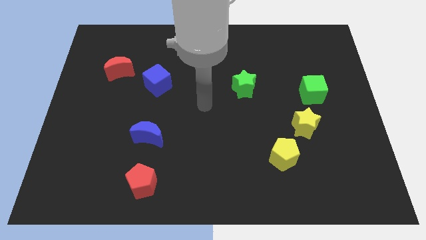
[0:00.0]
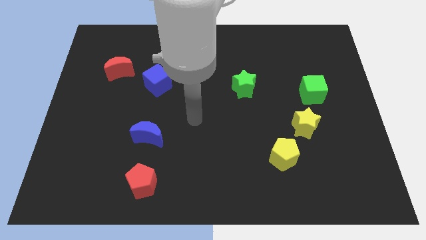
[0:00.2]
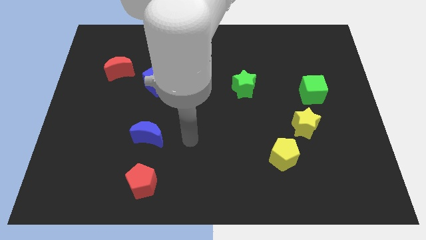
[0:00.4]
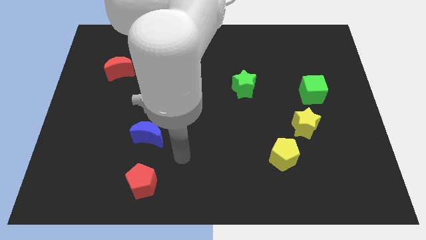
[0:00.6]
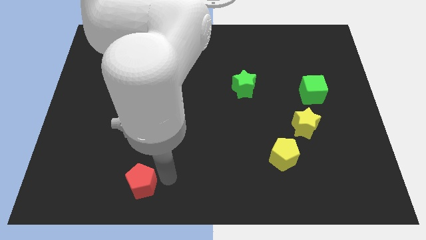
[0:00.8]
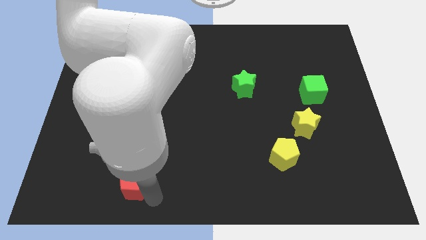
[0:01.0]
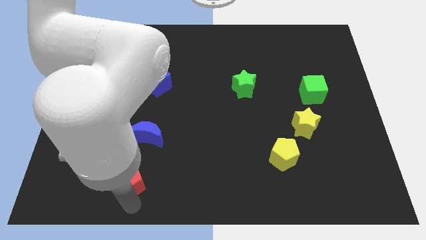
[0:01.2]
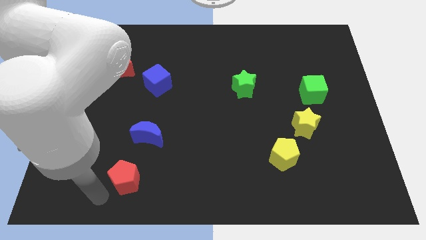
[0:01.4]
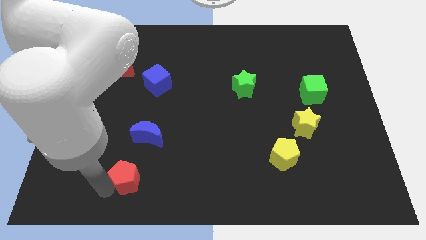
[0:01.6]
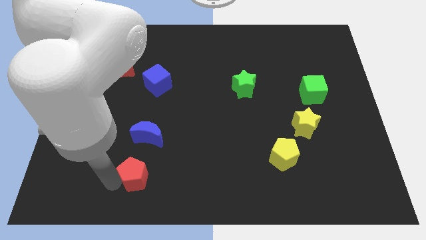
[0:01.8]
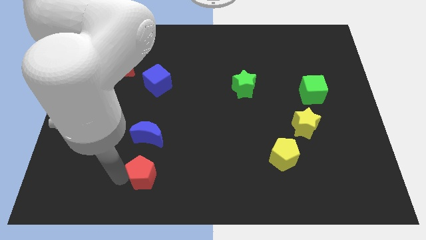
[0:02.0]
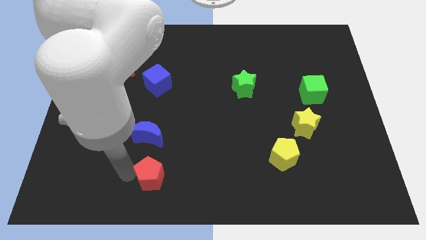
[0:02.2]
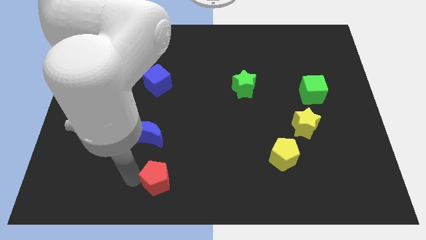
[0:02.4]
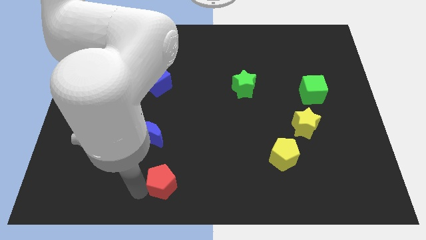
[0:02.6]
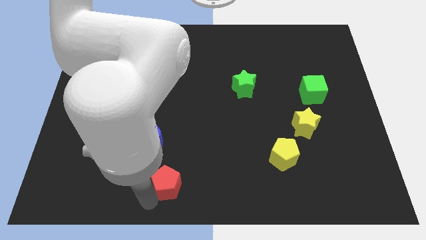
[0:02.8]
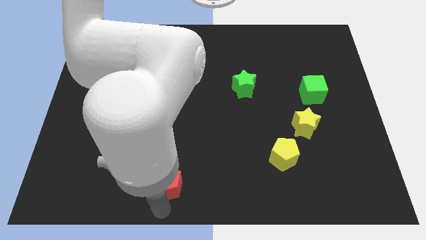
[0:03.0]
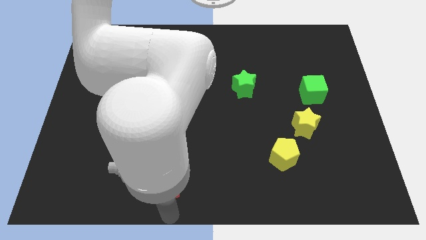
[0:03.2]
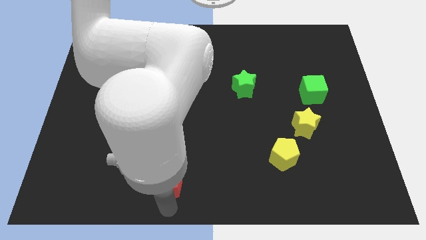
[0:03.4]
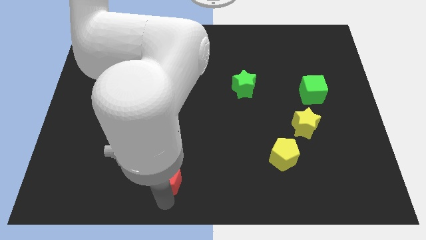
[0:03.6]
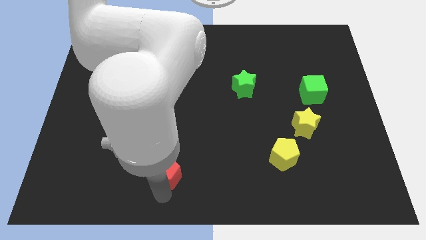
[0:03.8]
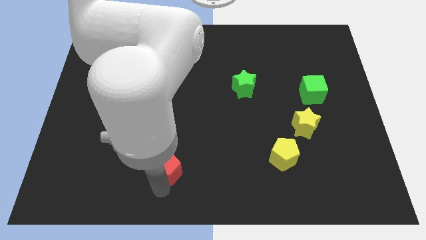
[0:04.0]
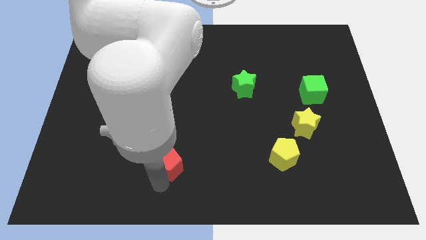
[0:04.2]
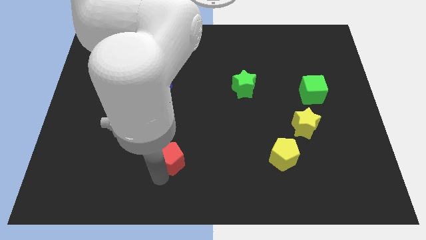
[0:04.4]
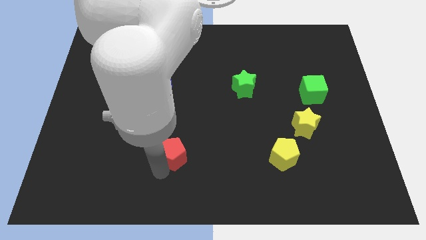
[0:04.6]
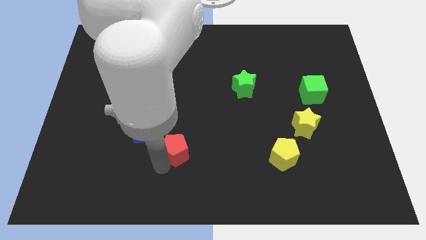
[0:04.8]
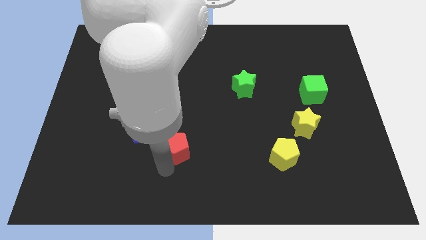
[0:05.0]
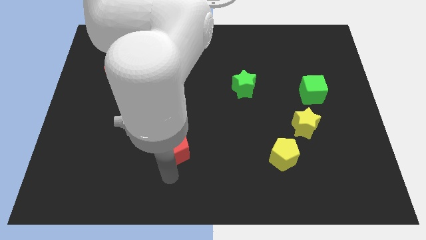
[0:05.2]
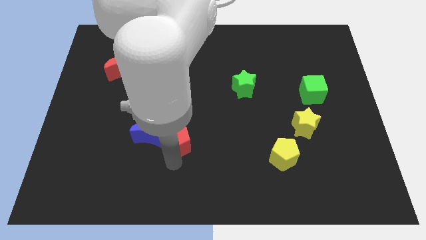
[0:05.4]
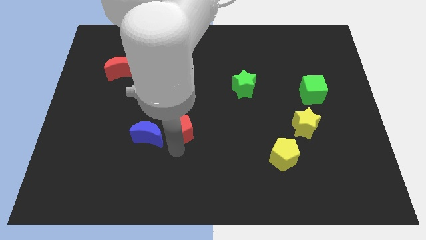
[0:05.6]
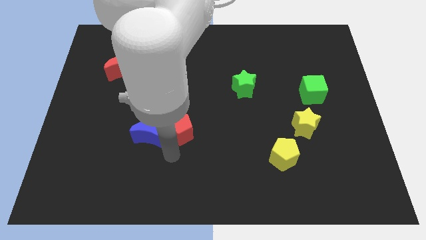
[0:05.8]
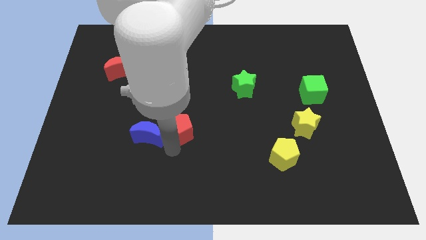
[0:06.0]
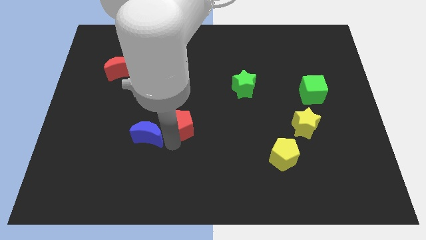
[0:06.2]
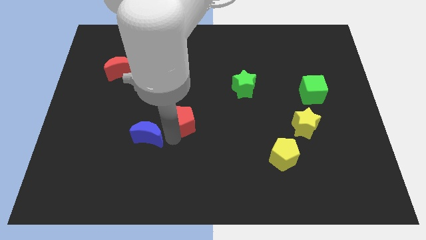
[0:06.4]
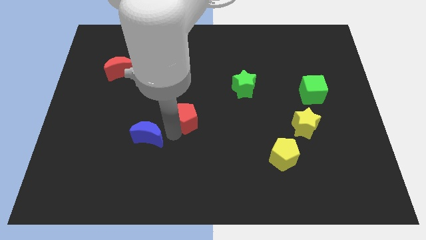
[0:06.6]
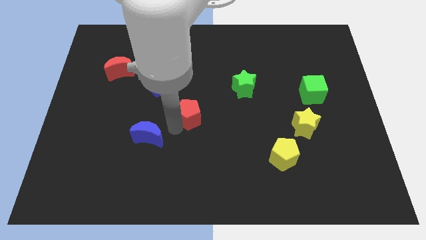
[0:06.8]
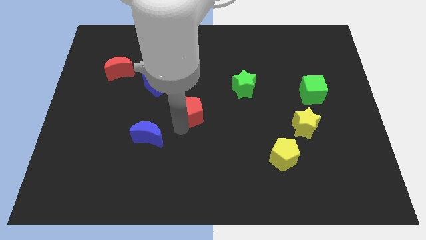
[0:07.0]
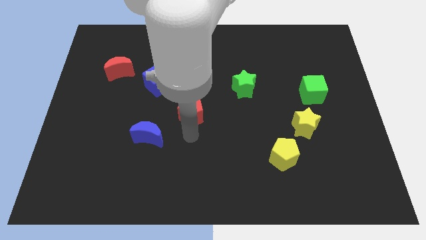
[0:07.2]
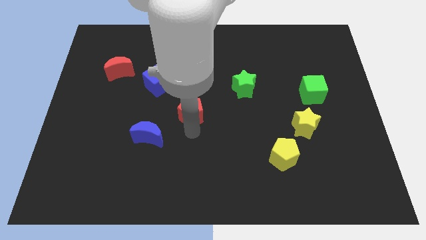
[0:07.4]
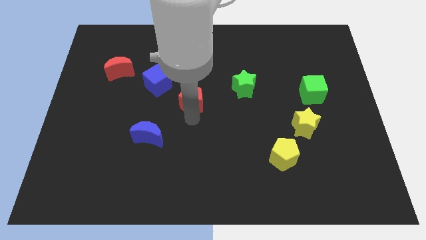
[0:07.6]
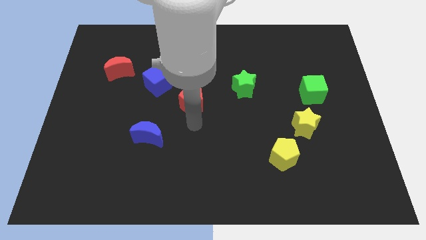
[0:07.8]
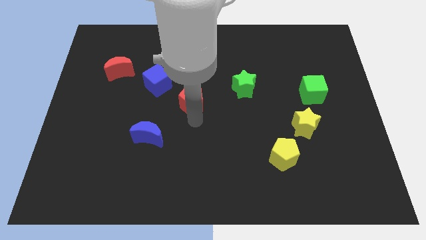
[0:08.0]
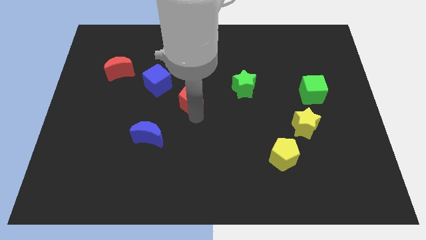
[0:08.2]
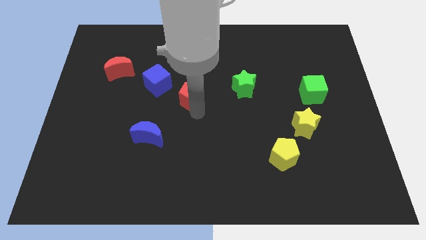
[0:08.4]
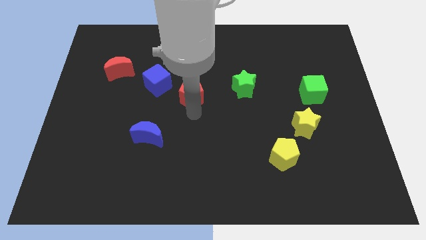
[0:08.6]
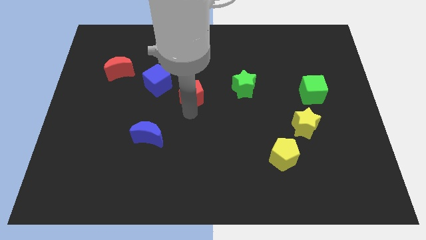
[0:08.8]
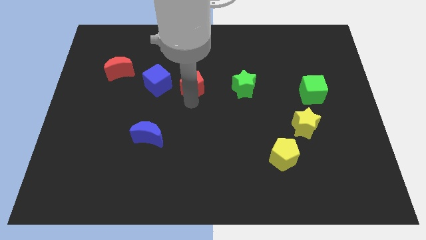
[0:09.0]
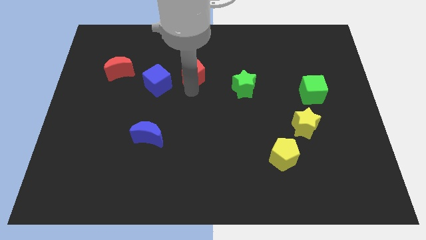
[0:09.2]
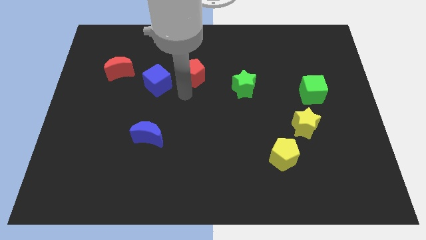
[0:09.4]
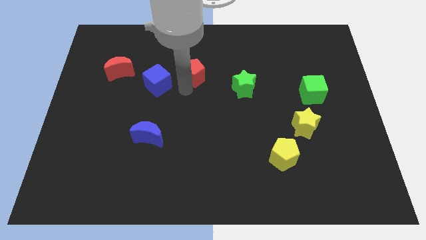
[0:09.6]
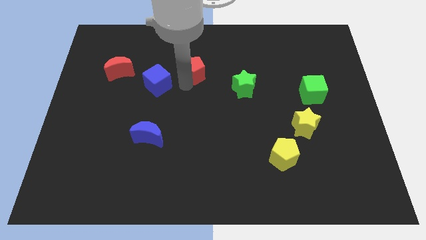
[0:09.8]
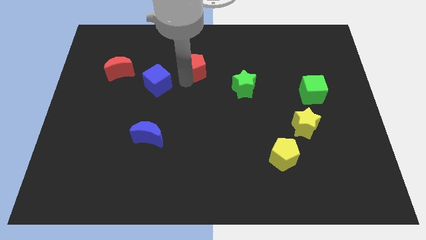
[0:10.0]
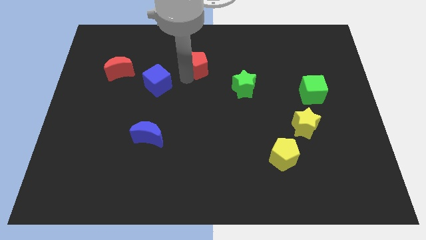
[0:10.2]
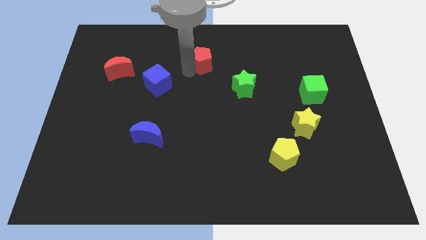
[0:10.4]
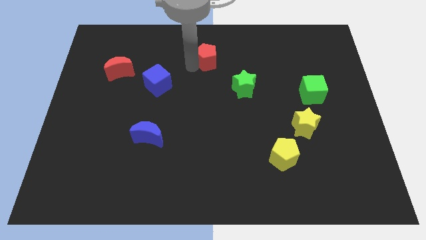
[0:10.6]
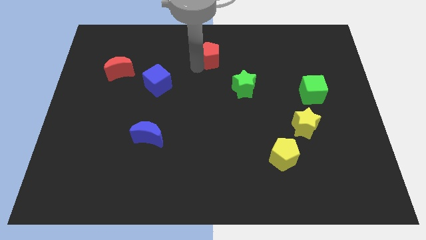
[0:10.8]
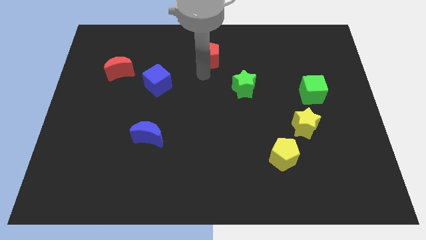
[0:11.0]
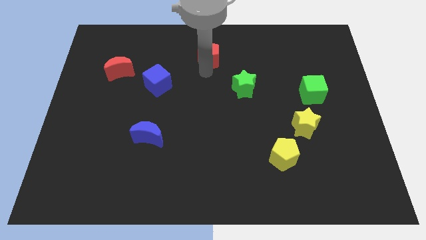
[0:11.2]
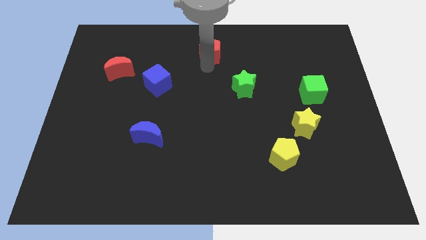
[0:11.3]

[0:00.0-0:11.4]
move the red pentagon to the towards your base

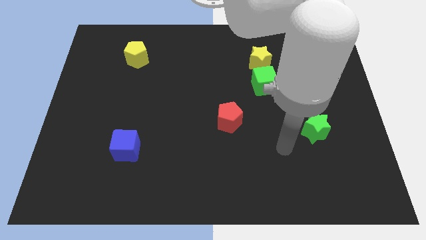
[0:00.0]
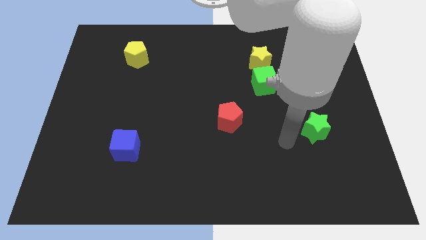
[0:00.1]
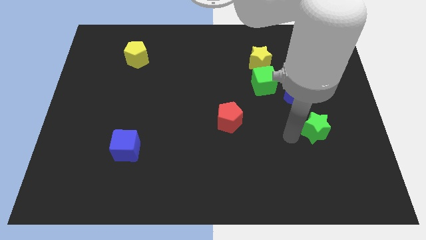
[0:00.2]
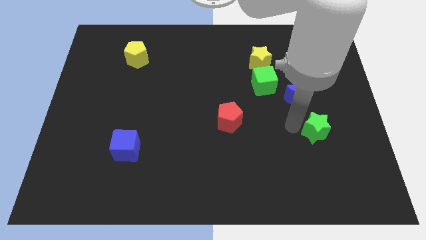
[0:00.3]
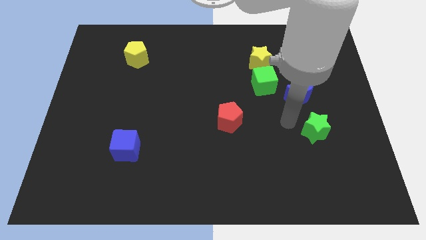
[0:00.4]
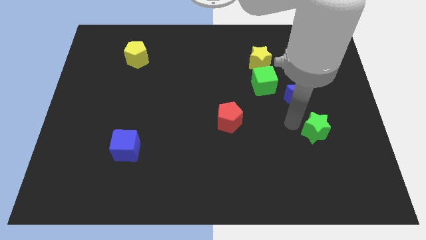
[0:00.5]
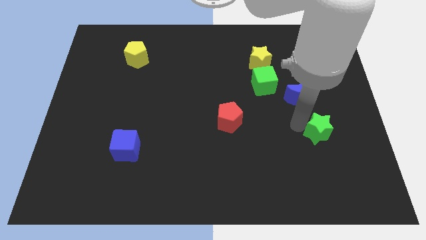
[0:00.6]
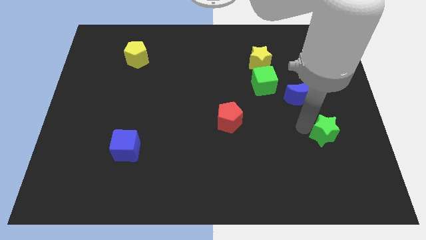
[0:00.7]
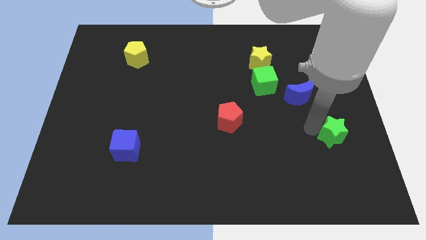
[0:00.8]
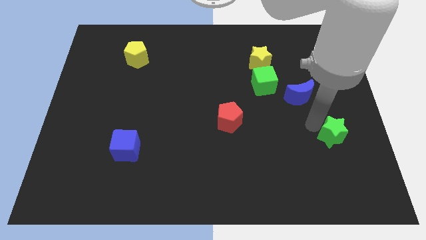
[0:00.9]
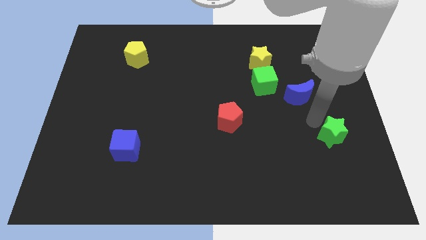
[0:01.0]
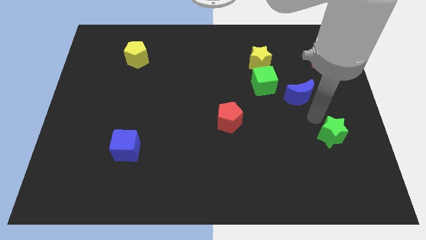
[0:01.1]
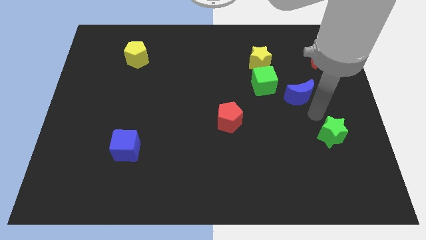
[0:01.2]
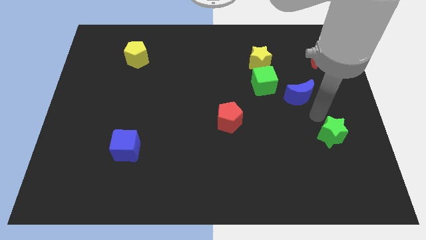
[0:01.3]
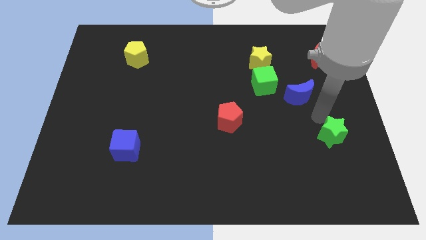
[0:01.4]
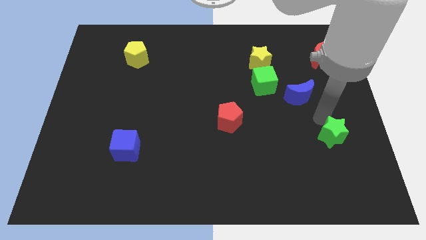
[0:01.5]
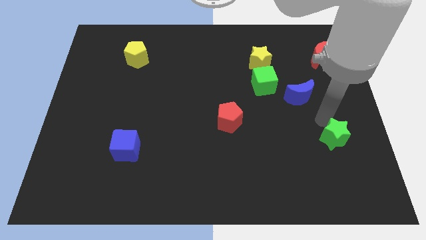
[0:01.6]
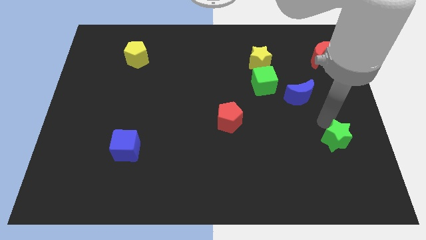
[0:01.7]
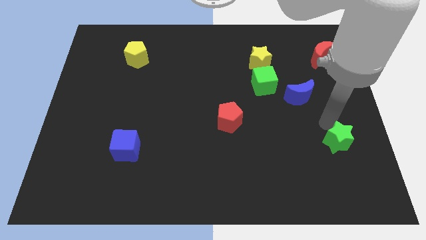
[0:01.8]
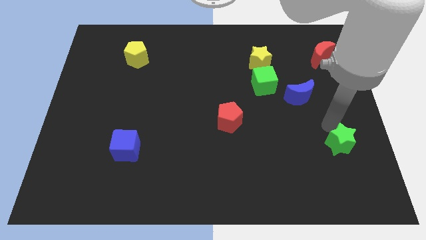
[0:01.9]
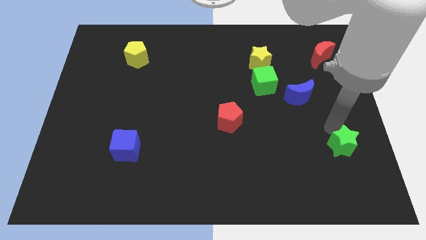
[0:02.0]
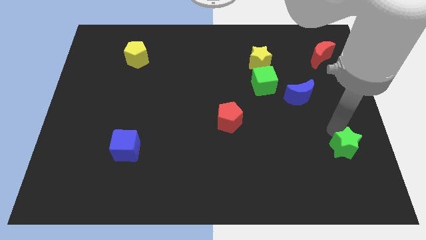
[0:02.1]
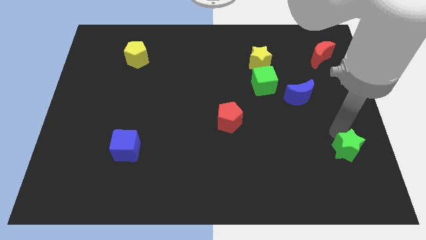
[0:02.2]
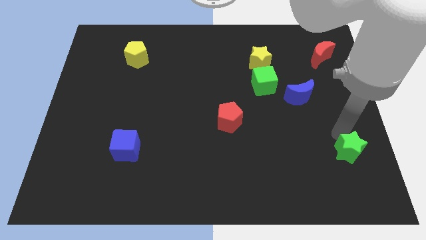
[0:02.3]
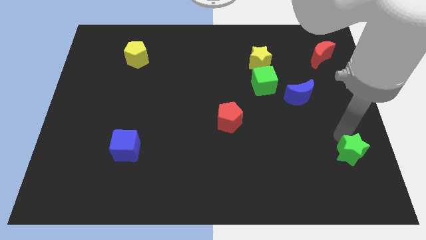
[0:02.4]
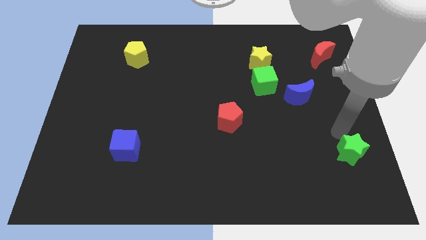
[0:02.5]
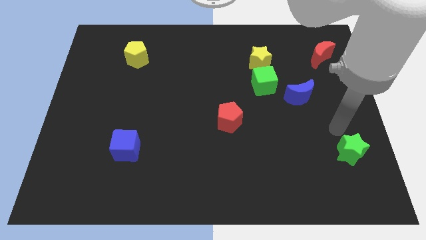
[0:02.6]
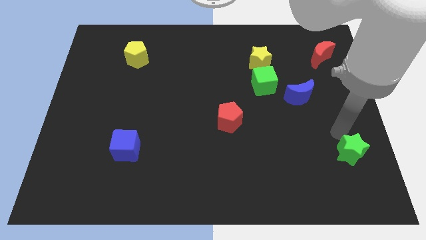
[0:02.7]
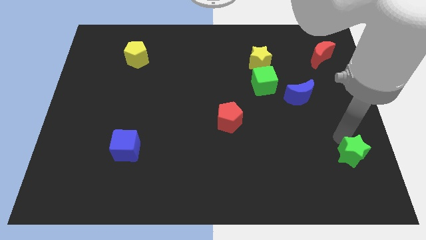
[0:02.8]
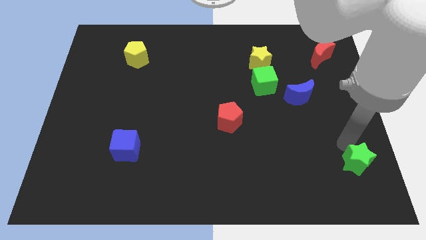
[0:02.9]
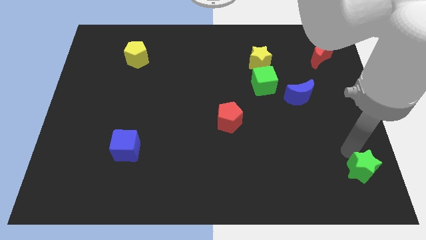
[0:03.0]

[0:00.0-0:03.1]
put the green star to the bottom right corner
